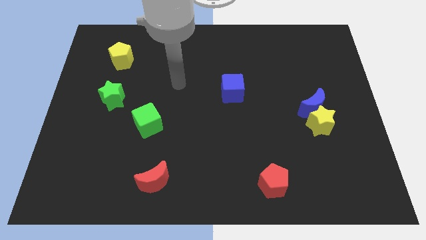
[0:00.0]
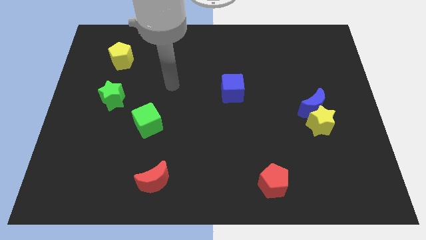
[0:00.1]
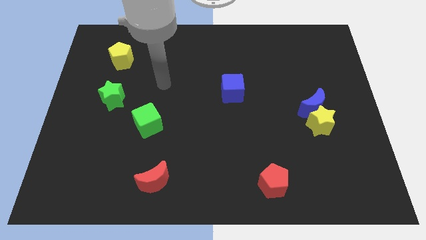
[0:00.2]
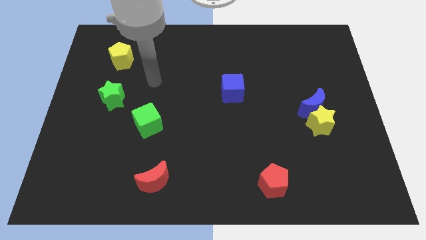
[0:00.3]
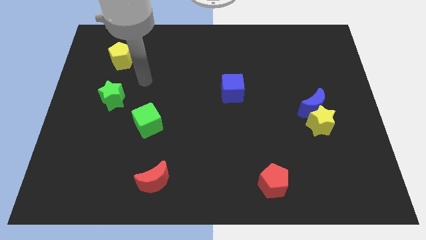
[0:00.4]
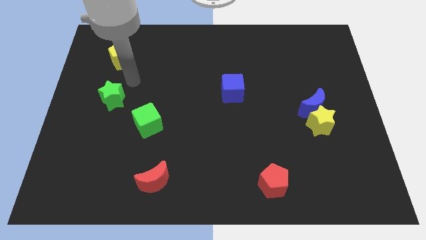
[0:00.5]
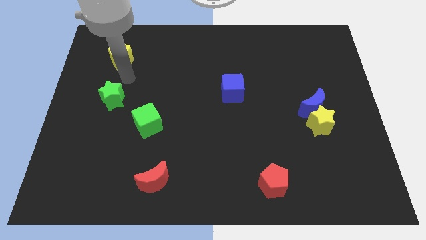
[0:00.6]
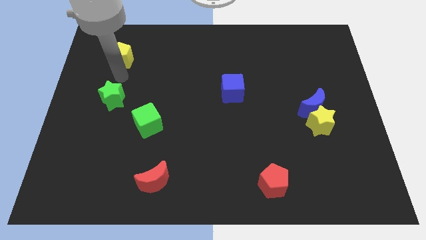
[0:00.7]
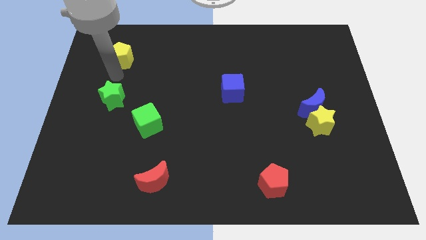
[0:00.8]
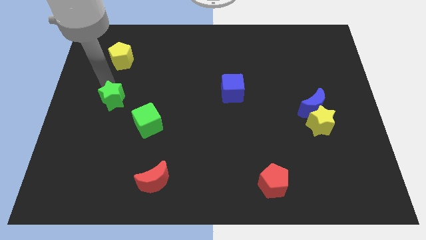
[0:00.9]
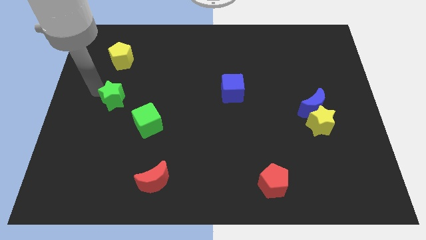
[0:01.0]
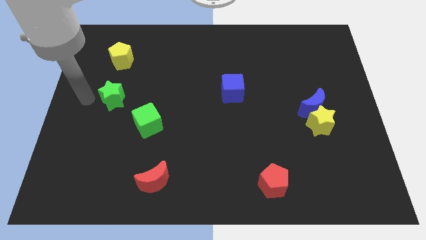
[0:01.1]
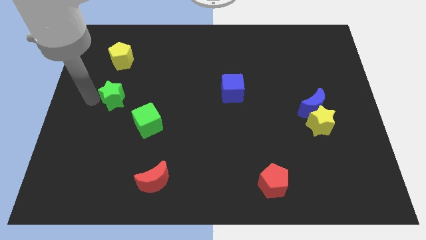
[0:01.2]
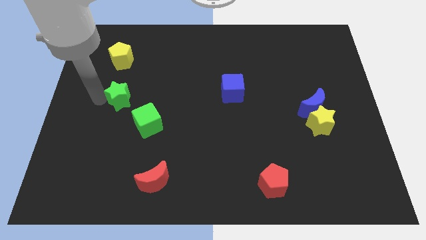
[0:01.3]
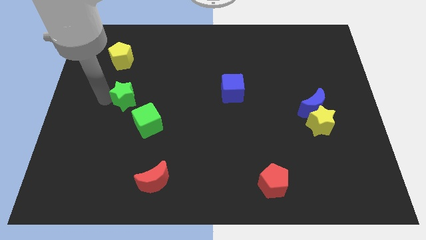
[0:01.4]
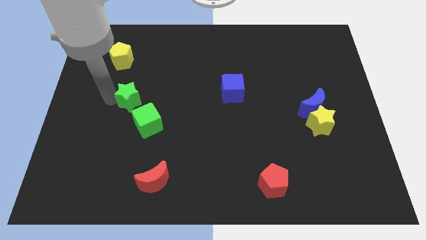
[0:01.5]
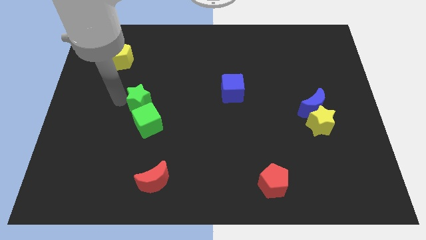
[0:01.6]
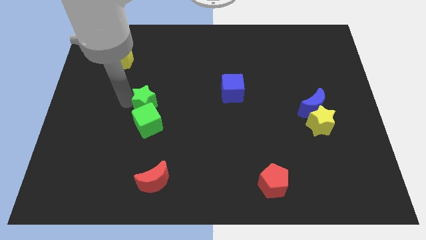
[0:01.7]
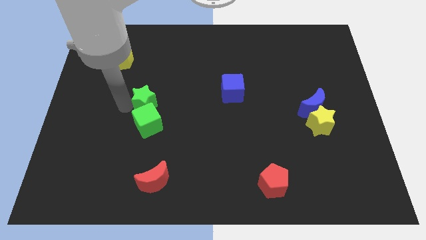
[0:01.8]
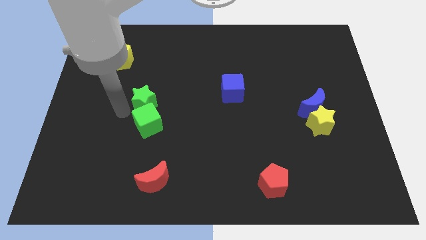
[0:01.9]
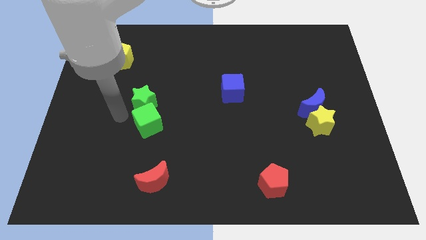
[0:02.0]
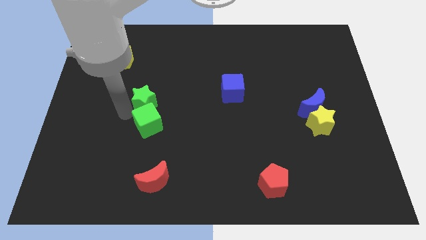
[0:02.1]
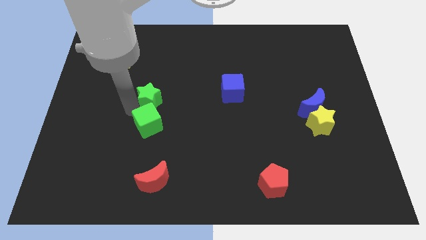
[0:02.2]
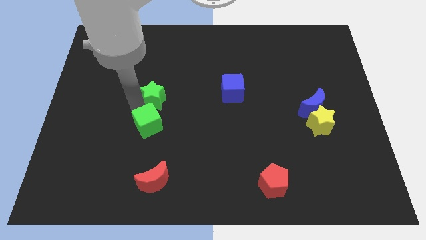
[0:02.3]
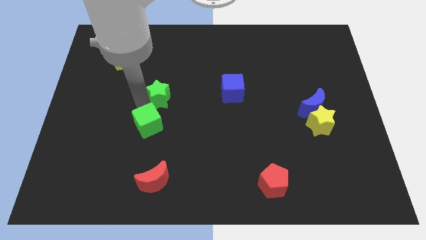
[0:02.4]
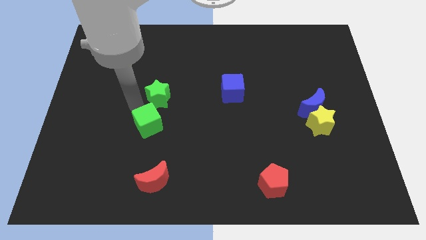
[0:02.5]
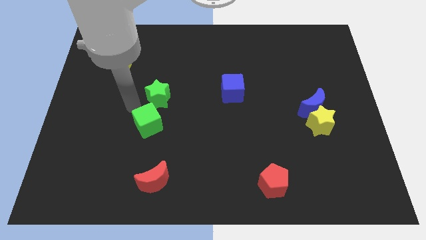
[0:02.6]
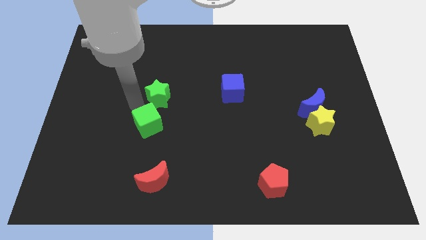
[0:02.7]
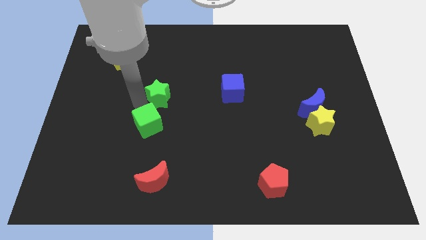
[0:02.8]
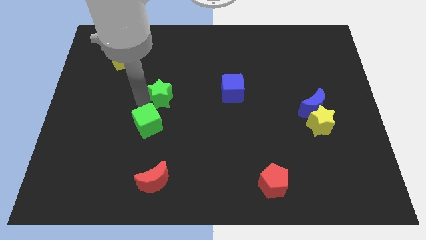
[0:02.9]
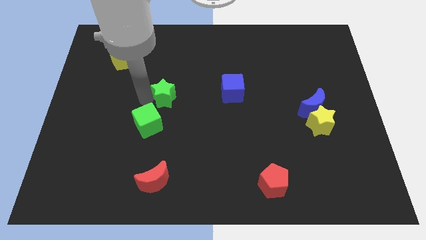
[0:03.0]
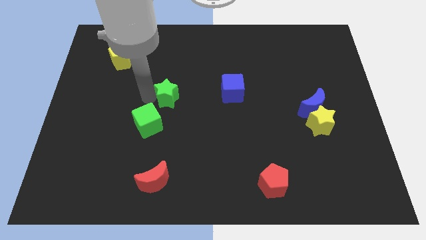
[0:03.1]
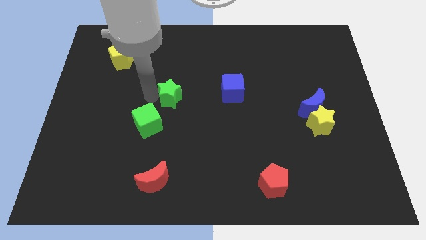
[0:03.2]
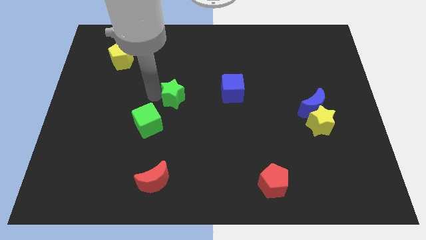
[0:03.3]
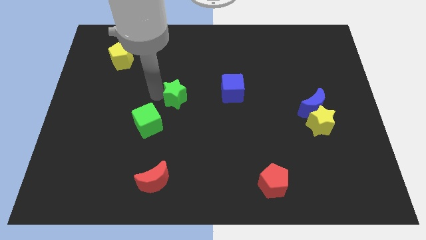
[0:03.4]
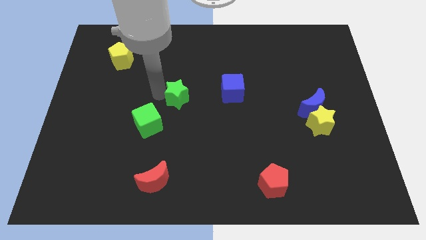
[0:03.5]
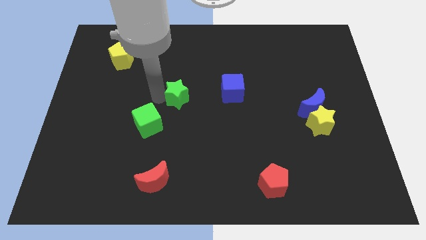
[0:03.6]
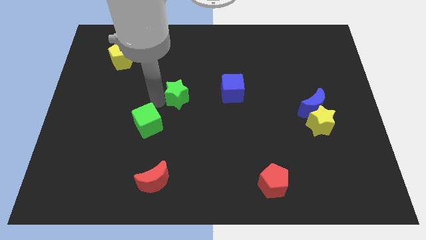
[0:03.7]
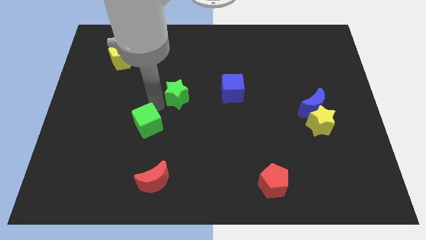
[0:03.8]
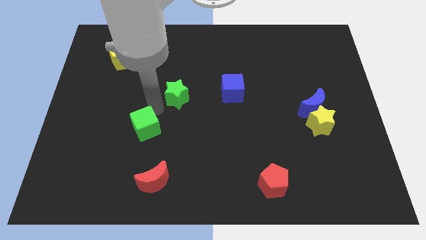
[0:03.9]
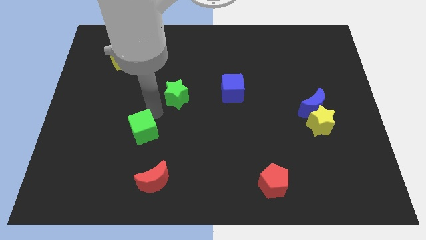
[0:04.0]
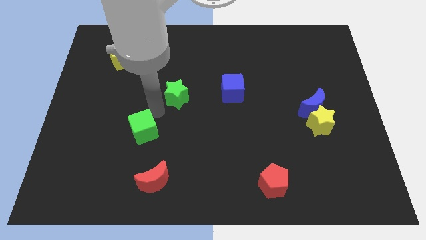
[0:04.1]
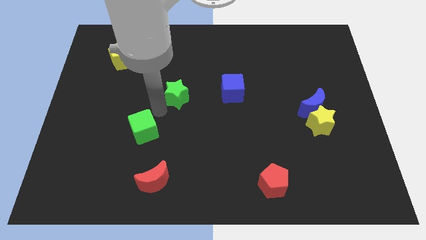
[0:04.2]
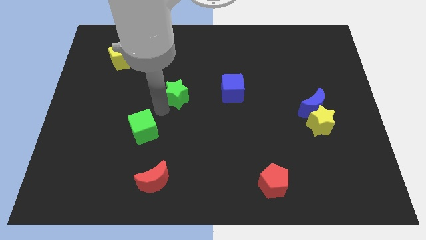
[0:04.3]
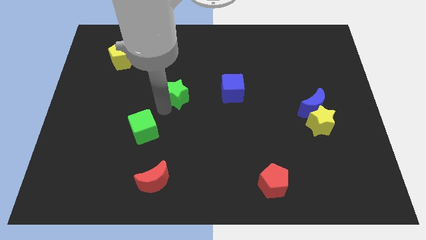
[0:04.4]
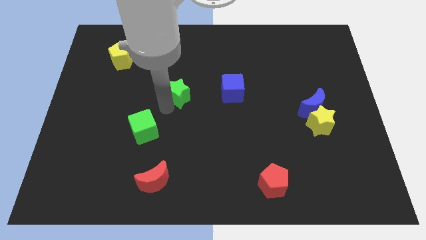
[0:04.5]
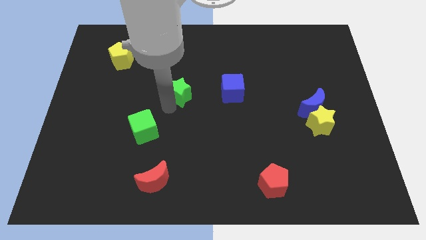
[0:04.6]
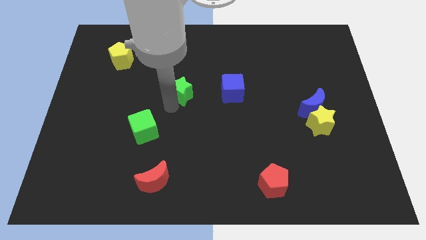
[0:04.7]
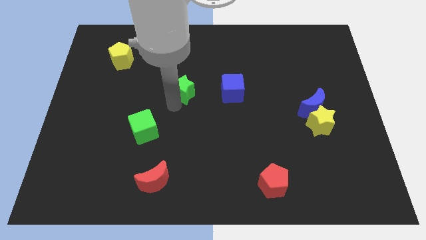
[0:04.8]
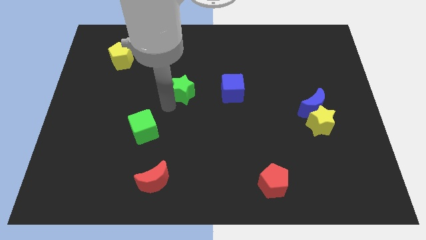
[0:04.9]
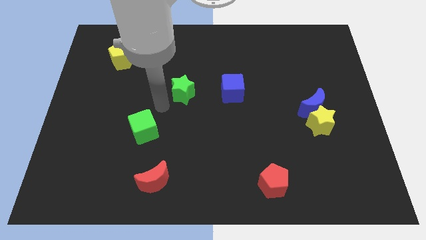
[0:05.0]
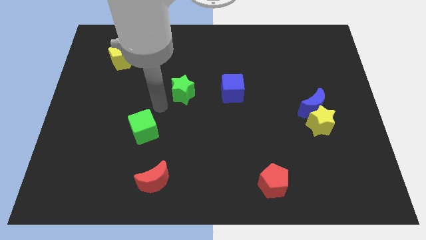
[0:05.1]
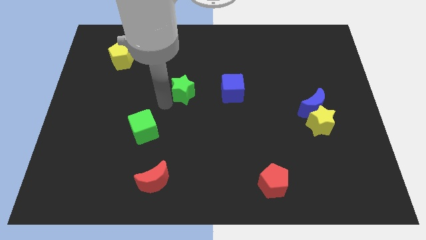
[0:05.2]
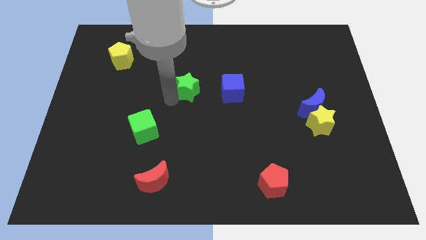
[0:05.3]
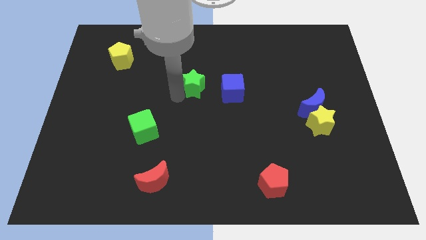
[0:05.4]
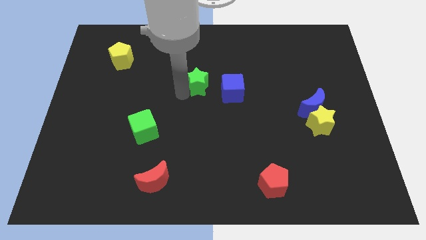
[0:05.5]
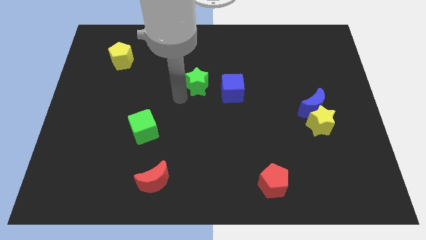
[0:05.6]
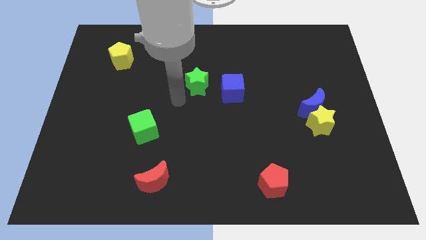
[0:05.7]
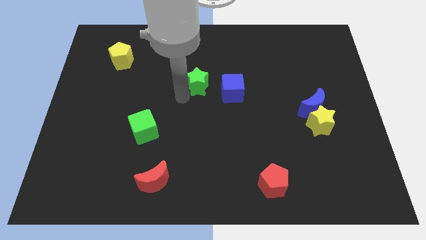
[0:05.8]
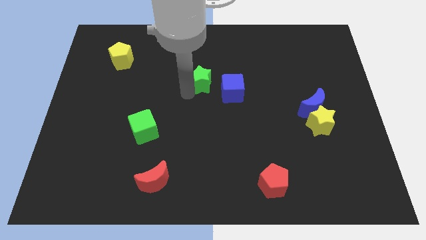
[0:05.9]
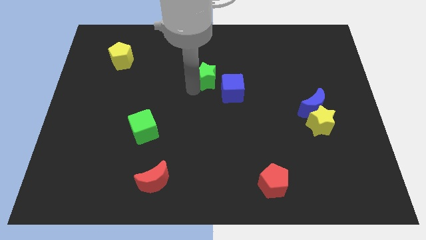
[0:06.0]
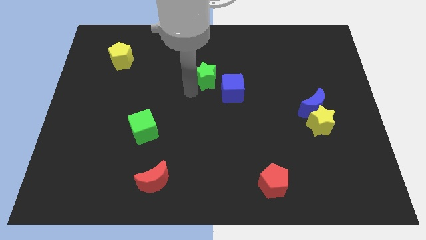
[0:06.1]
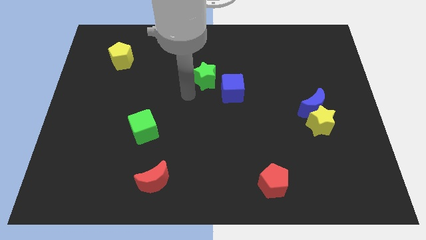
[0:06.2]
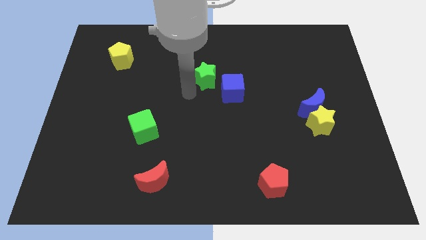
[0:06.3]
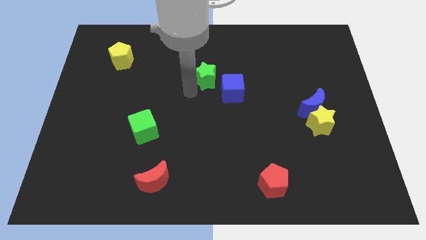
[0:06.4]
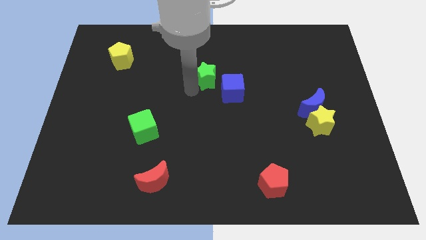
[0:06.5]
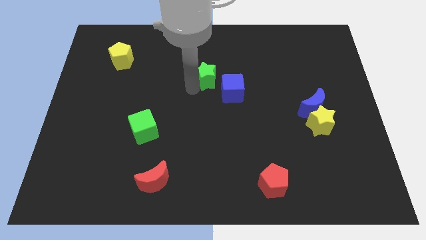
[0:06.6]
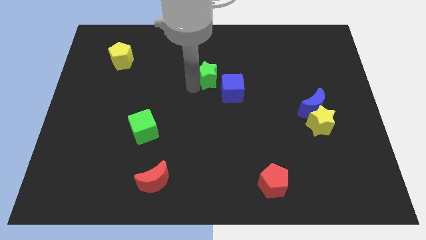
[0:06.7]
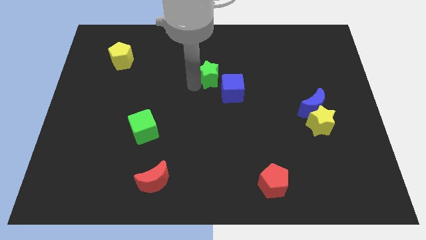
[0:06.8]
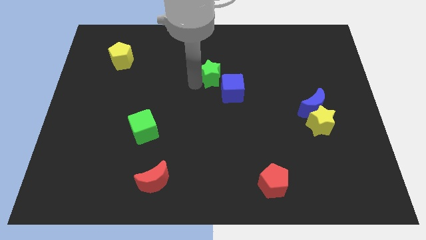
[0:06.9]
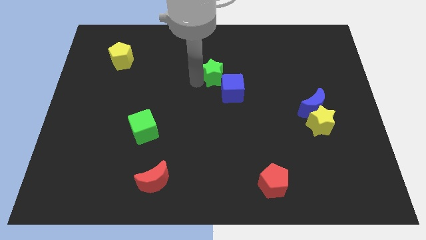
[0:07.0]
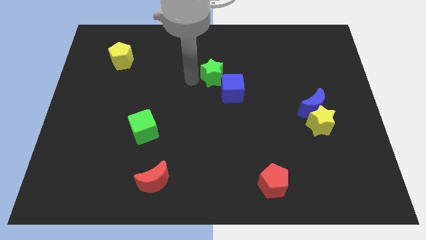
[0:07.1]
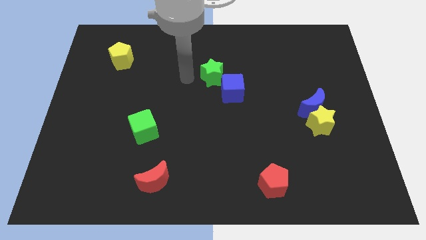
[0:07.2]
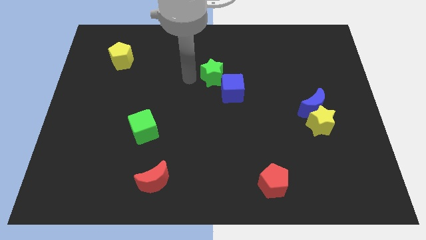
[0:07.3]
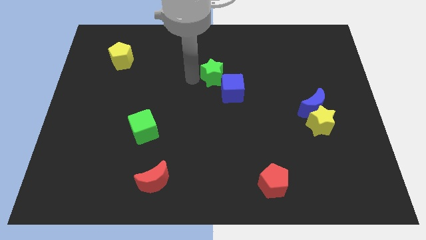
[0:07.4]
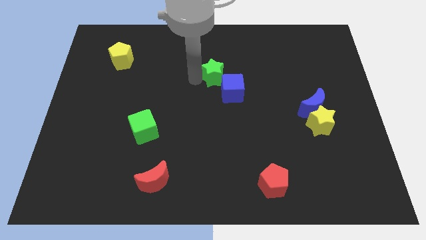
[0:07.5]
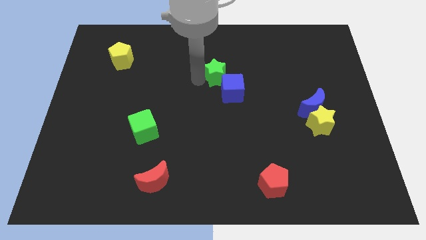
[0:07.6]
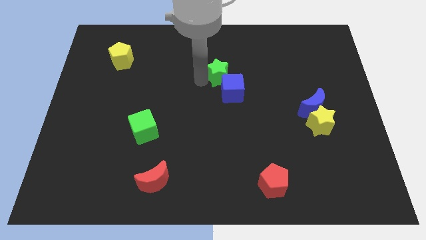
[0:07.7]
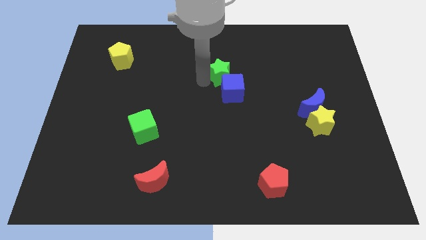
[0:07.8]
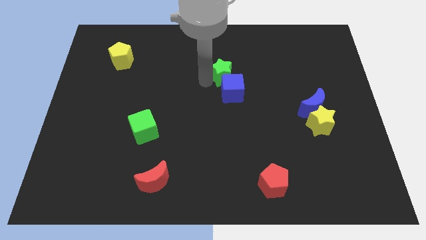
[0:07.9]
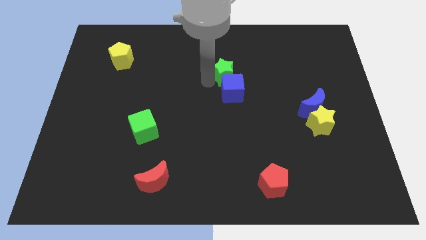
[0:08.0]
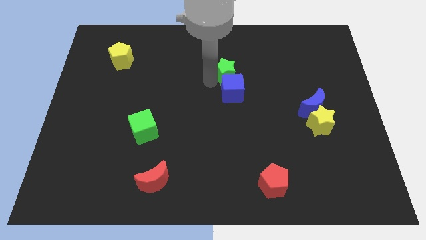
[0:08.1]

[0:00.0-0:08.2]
slide the green star diagonally up and to the right of the blue cube
